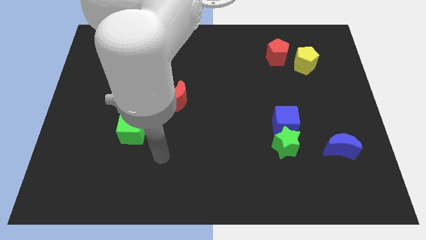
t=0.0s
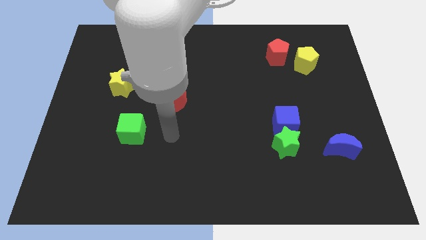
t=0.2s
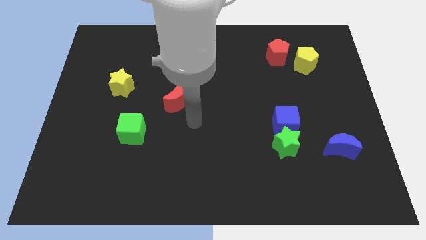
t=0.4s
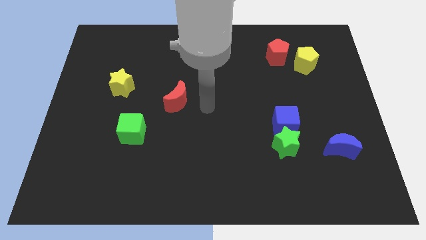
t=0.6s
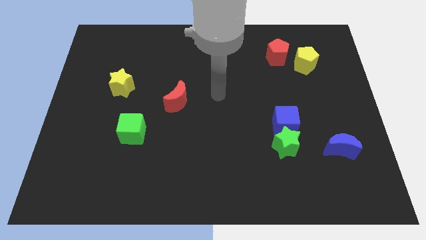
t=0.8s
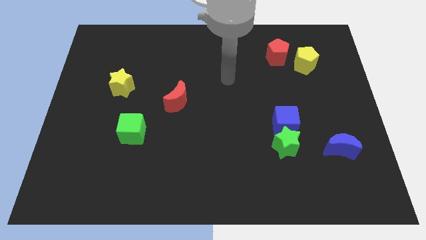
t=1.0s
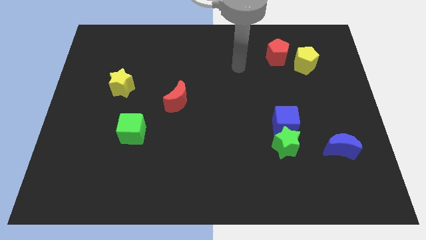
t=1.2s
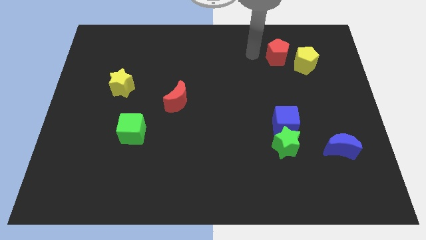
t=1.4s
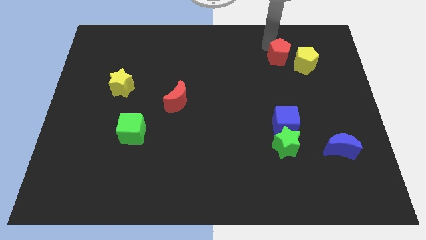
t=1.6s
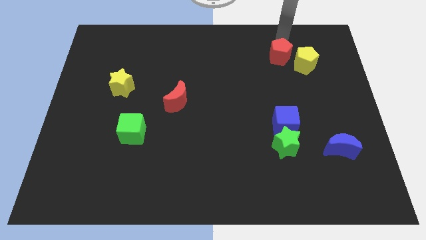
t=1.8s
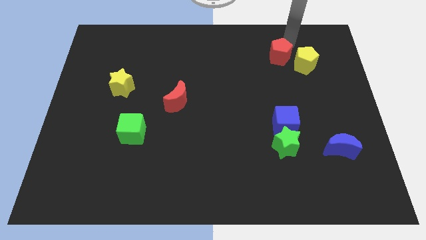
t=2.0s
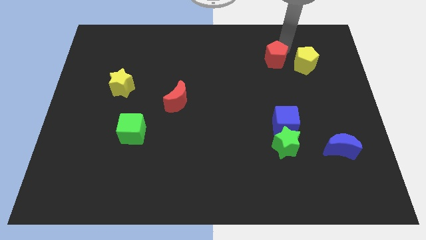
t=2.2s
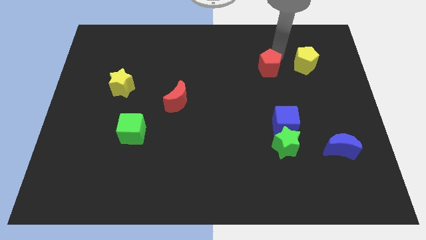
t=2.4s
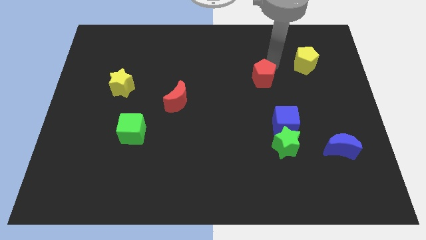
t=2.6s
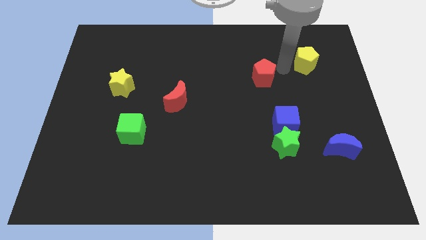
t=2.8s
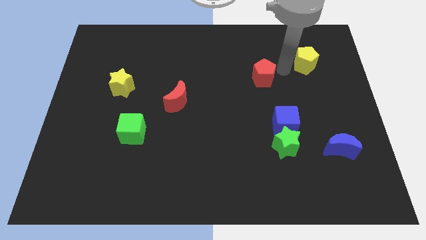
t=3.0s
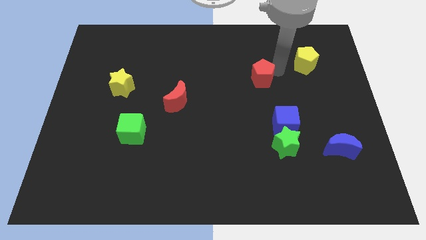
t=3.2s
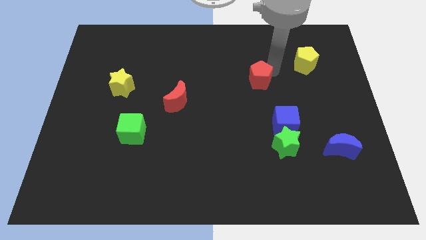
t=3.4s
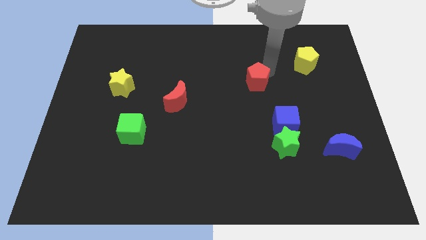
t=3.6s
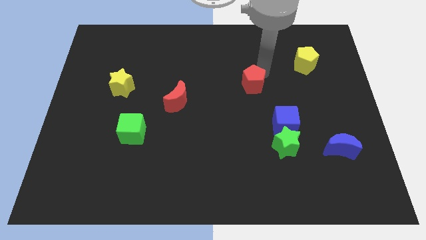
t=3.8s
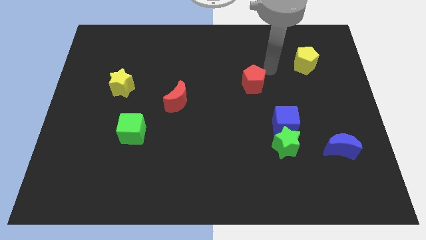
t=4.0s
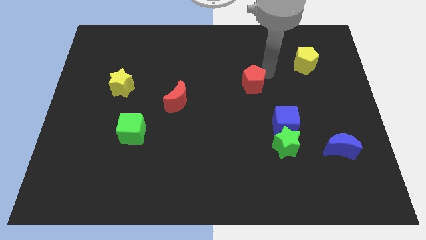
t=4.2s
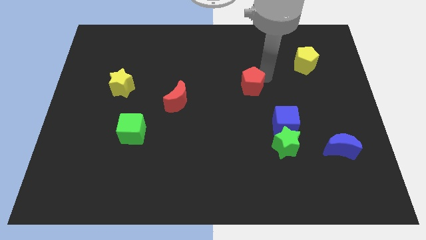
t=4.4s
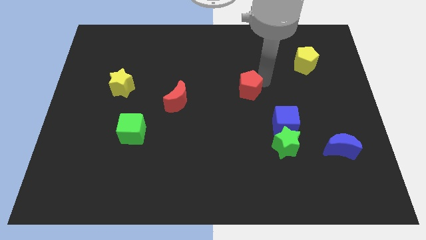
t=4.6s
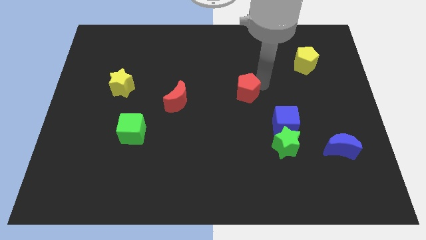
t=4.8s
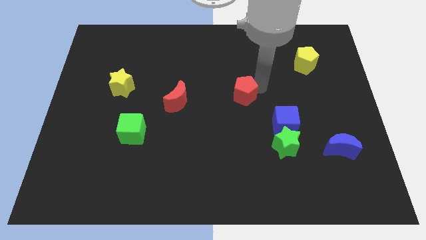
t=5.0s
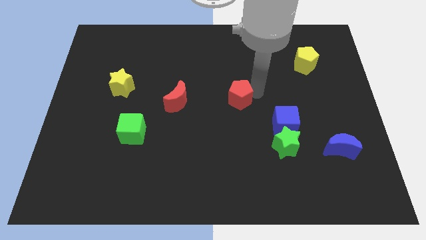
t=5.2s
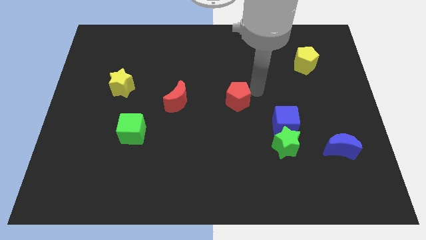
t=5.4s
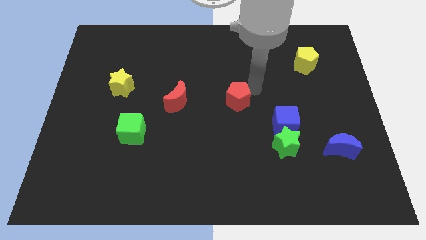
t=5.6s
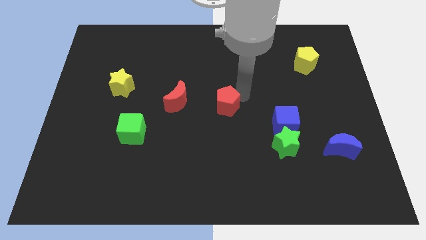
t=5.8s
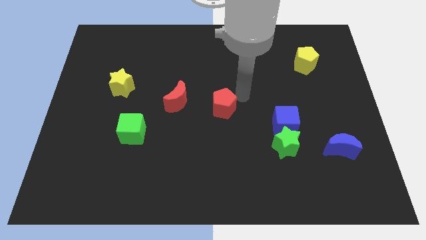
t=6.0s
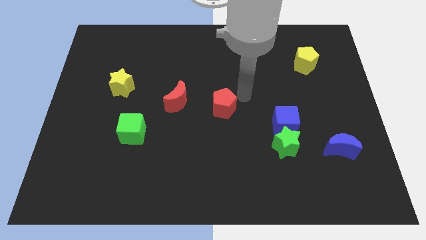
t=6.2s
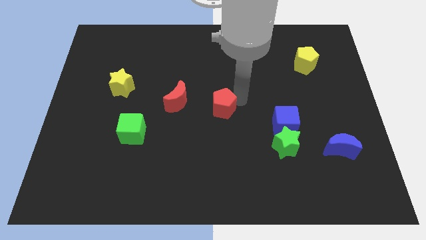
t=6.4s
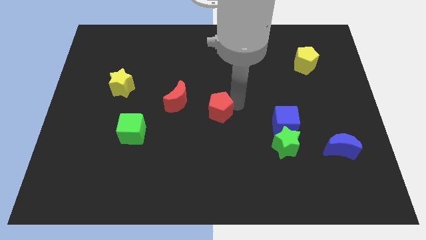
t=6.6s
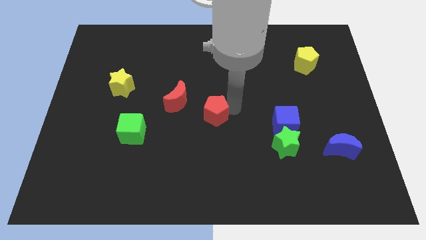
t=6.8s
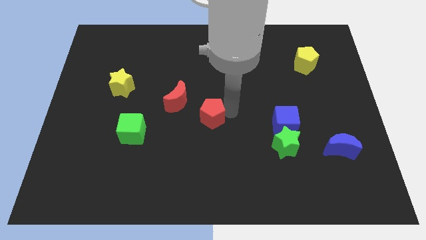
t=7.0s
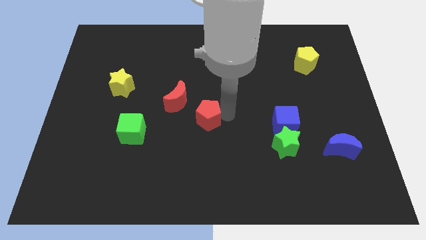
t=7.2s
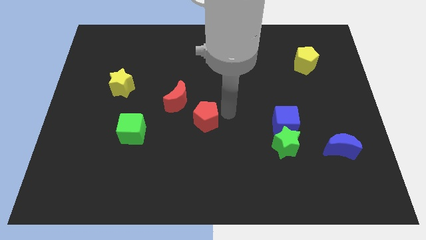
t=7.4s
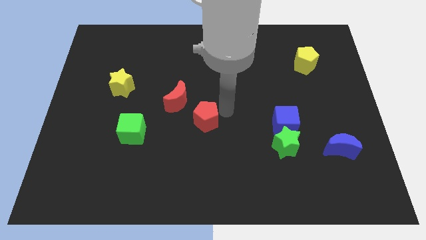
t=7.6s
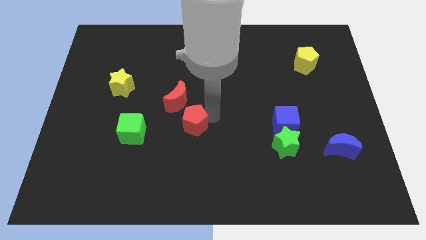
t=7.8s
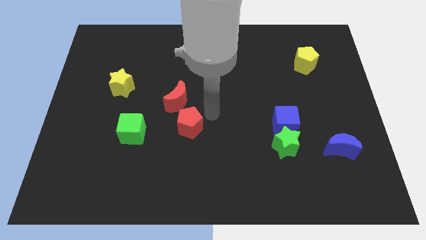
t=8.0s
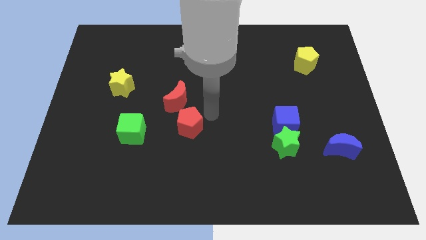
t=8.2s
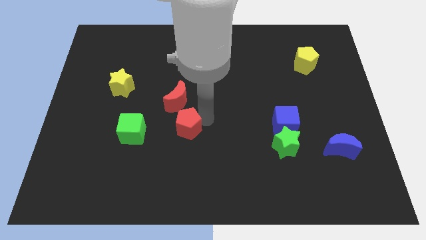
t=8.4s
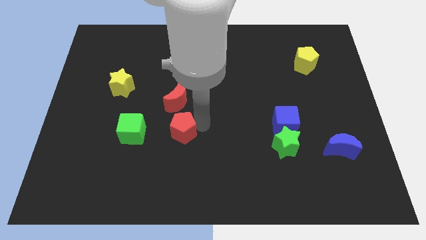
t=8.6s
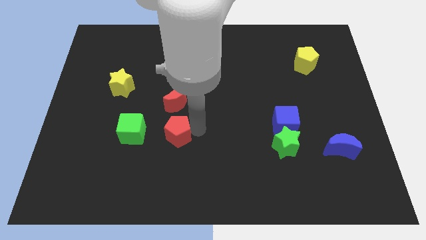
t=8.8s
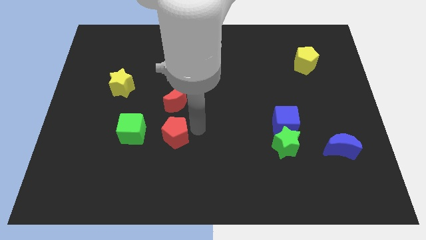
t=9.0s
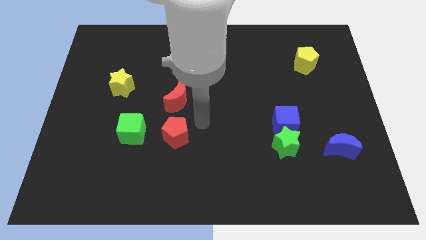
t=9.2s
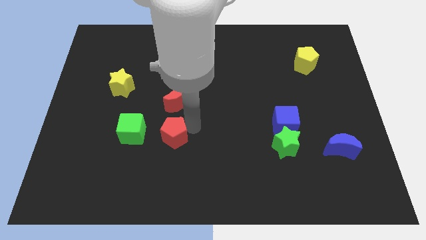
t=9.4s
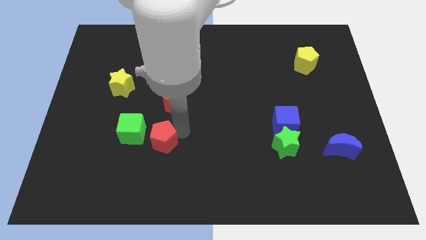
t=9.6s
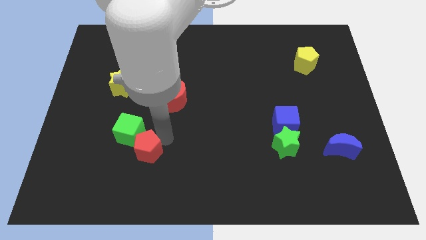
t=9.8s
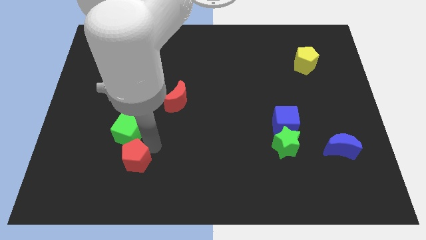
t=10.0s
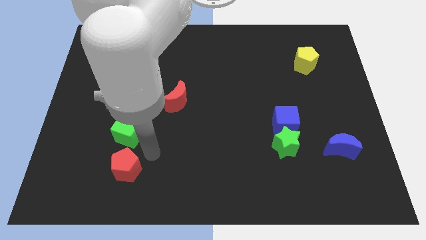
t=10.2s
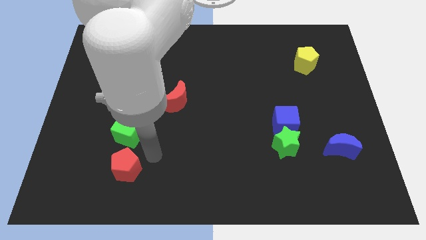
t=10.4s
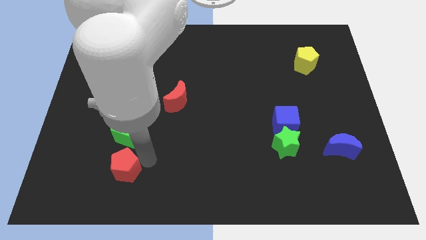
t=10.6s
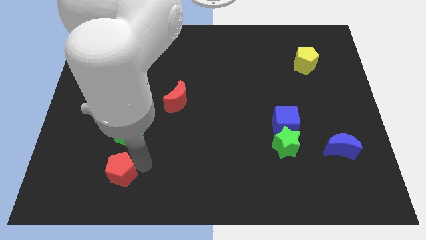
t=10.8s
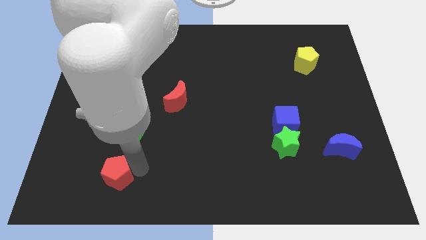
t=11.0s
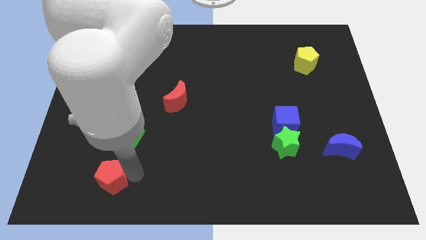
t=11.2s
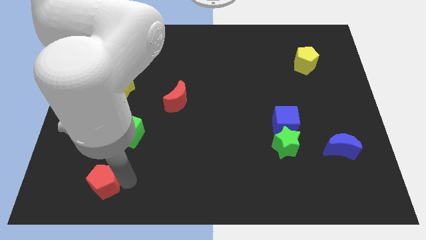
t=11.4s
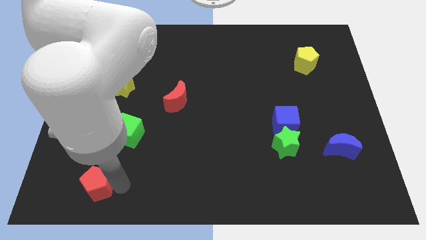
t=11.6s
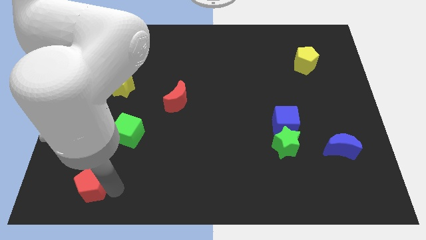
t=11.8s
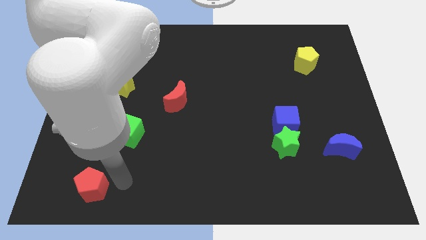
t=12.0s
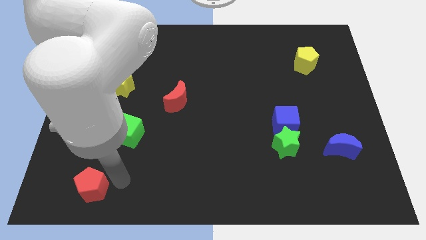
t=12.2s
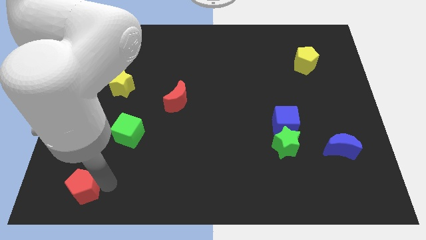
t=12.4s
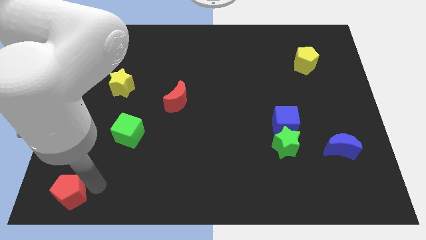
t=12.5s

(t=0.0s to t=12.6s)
put the red pentagon to the bottom left of the board
